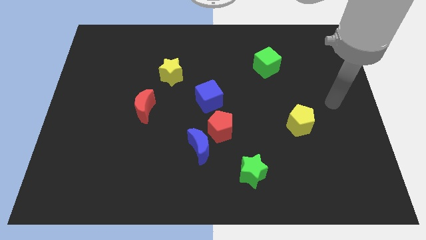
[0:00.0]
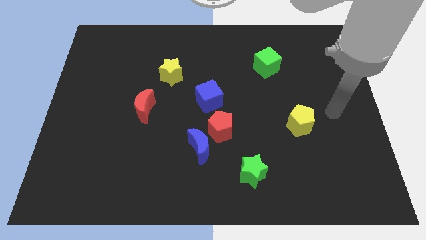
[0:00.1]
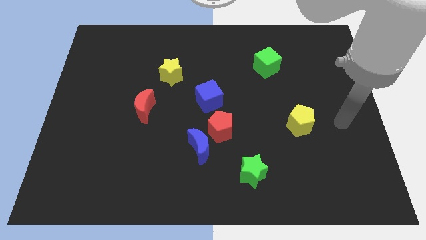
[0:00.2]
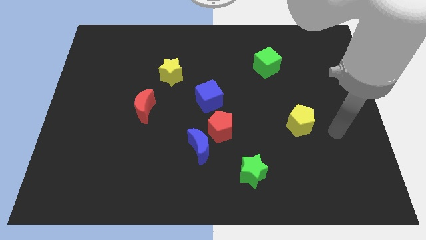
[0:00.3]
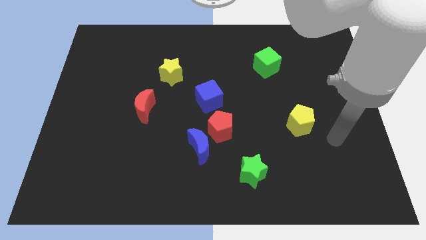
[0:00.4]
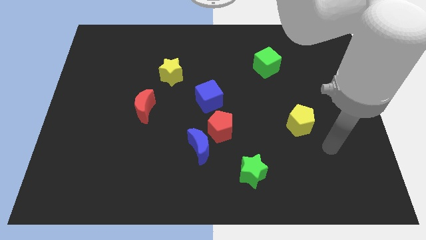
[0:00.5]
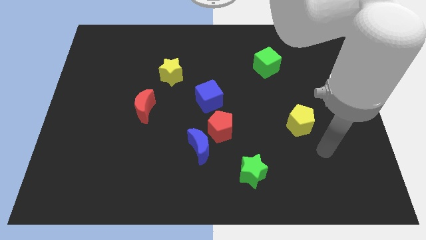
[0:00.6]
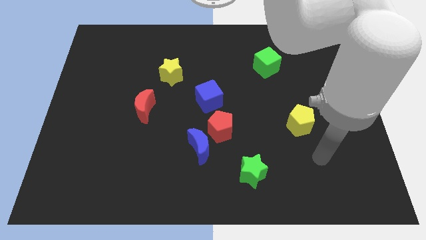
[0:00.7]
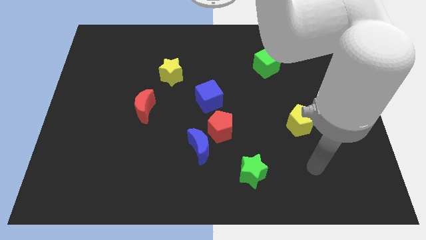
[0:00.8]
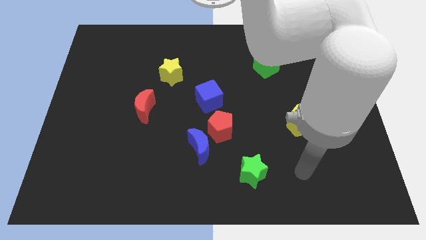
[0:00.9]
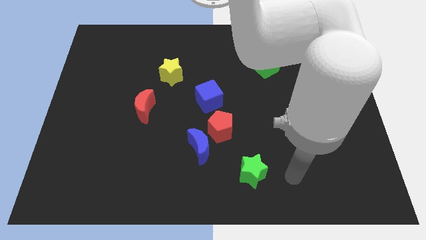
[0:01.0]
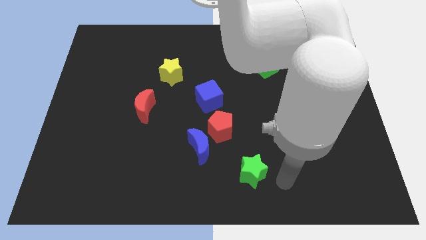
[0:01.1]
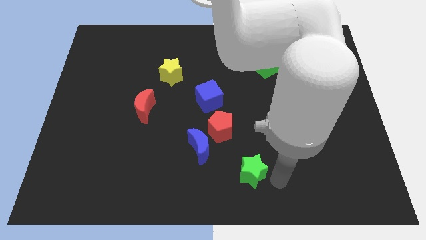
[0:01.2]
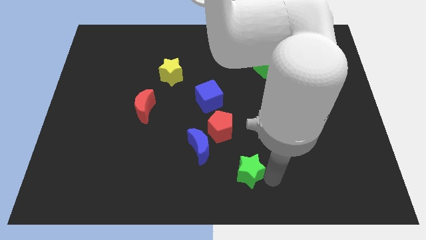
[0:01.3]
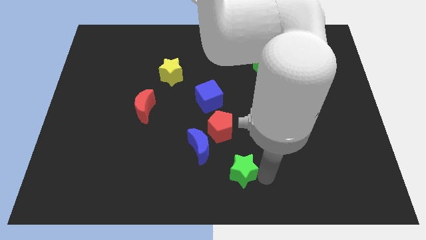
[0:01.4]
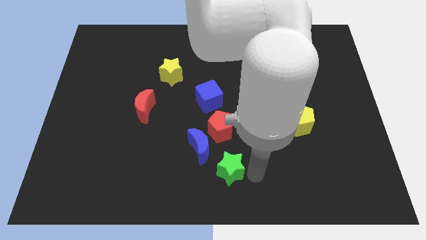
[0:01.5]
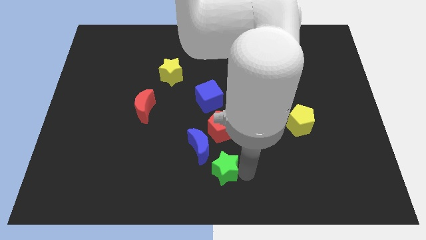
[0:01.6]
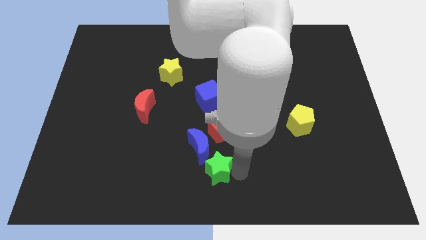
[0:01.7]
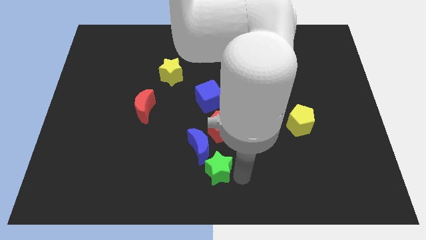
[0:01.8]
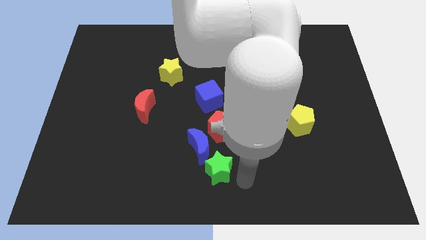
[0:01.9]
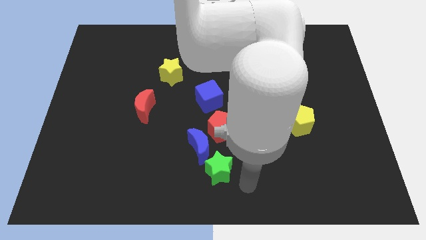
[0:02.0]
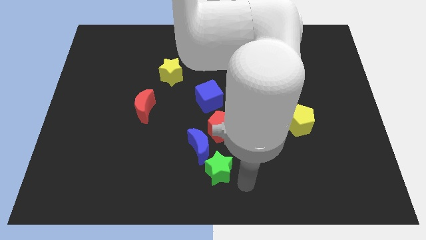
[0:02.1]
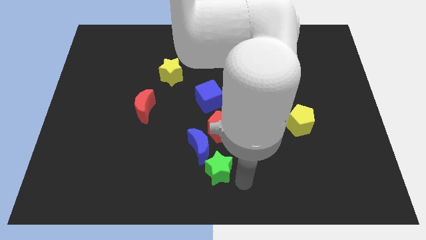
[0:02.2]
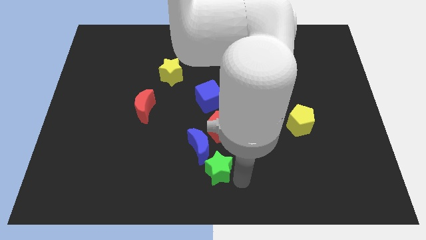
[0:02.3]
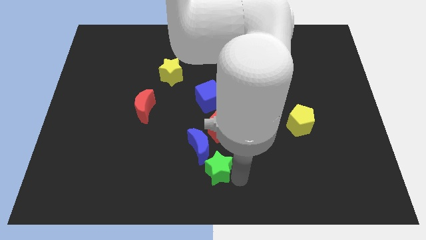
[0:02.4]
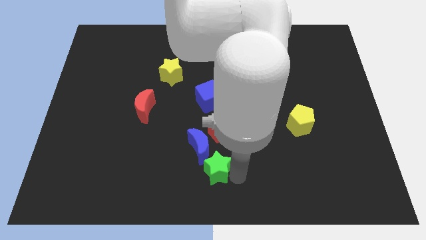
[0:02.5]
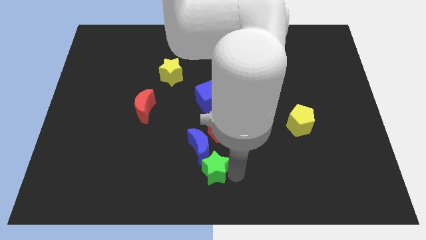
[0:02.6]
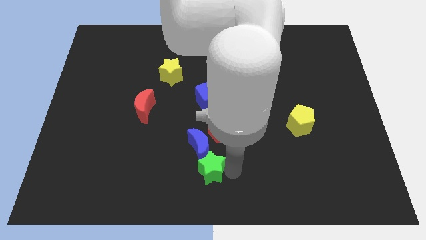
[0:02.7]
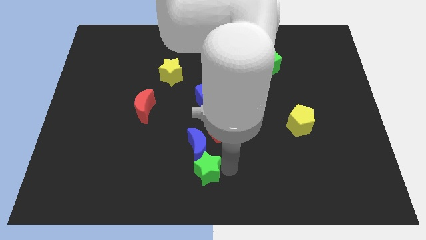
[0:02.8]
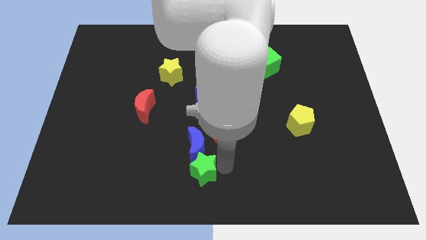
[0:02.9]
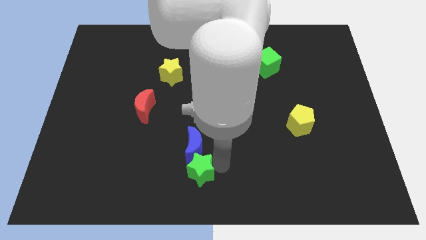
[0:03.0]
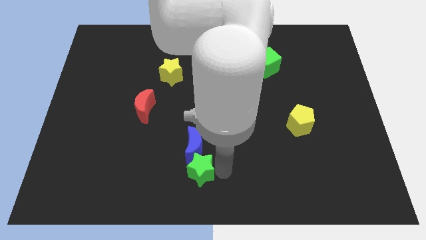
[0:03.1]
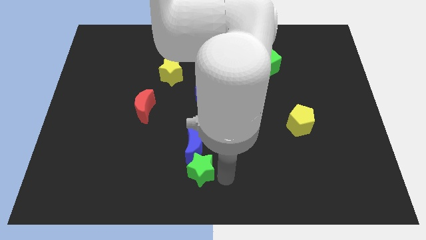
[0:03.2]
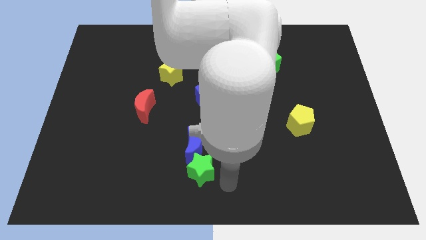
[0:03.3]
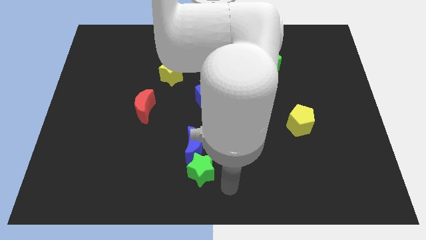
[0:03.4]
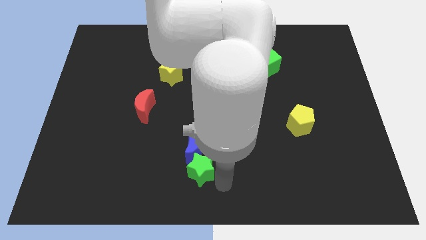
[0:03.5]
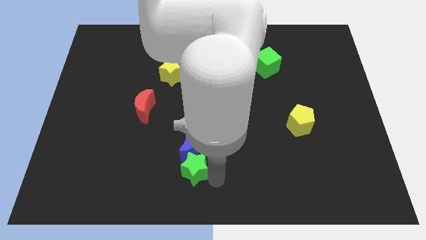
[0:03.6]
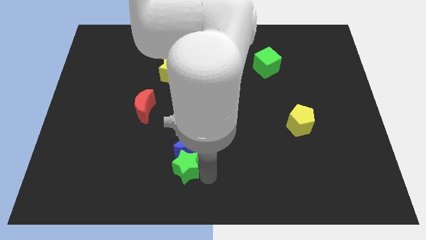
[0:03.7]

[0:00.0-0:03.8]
push the green star slightly diagonally upwards and to the left

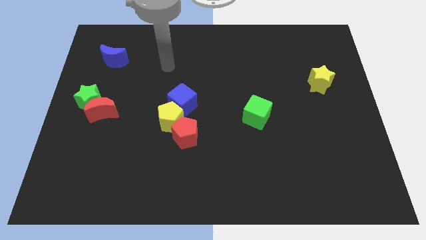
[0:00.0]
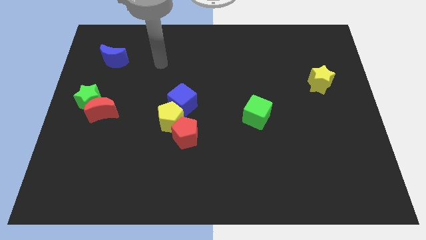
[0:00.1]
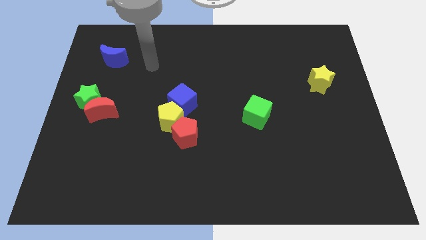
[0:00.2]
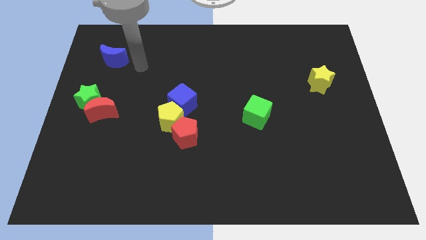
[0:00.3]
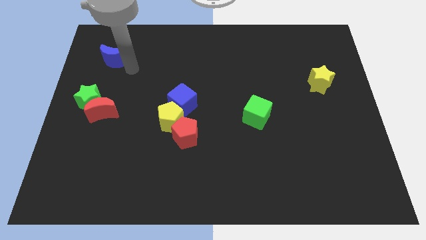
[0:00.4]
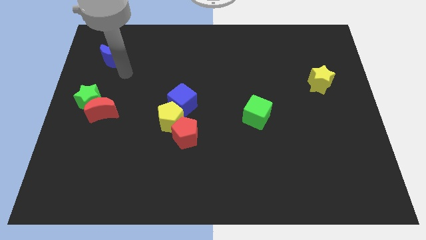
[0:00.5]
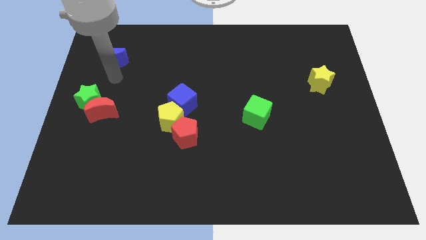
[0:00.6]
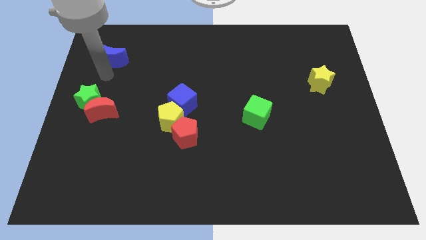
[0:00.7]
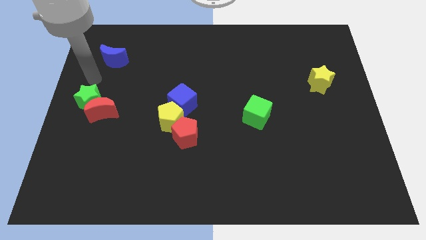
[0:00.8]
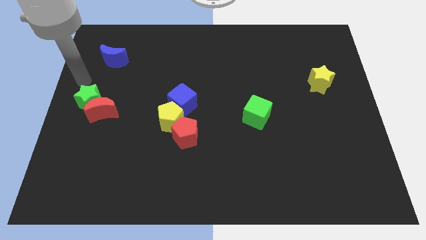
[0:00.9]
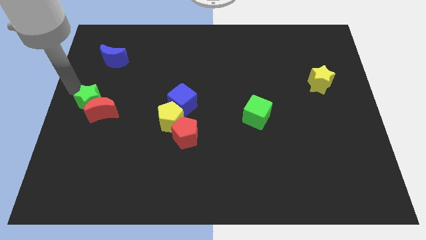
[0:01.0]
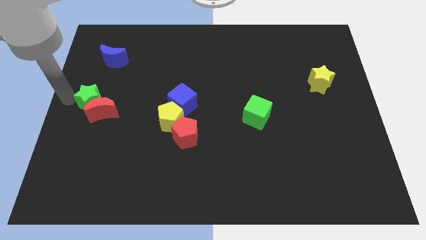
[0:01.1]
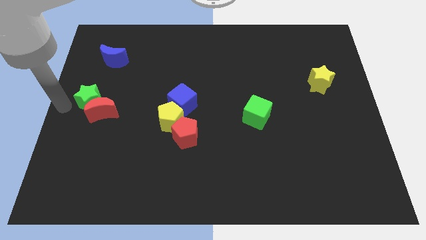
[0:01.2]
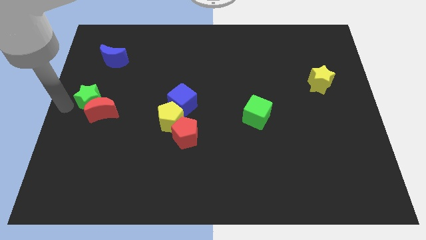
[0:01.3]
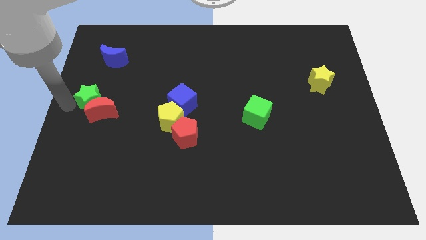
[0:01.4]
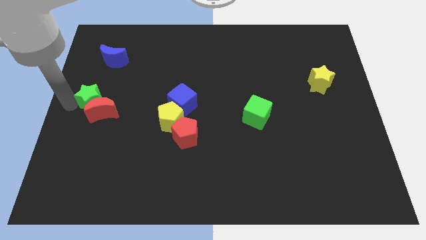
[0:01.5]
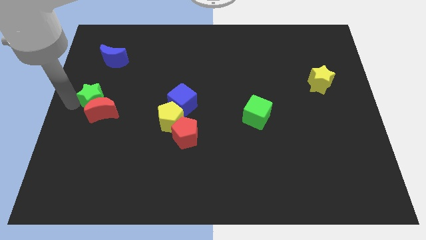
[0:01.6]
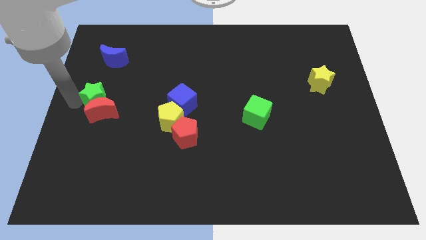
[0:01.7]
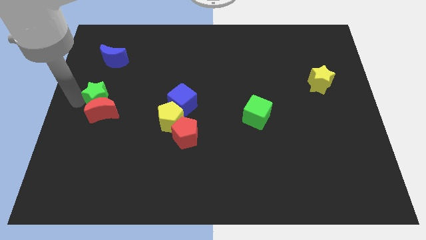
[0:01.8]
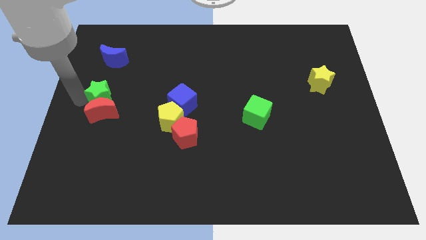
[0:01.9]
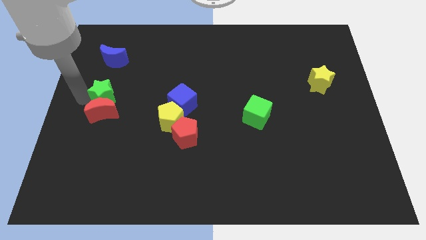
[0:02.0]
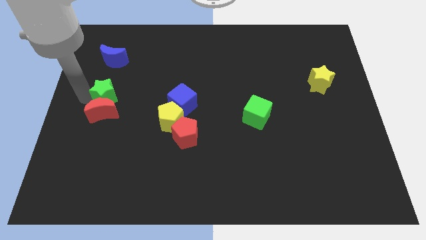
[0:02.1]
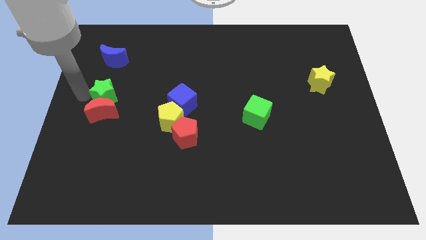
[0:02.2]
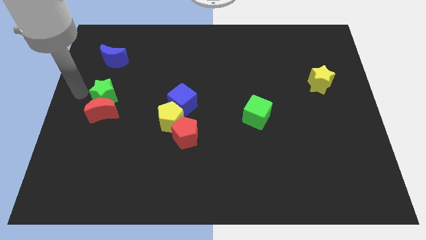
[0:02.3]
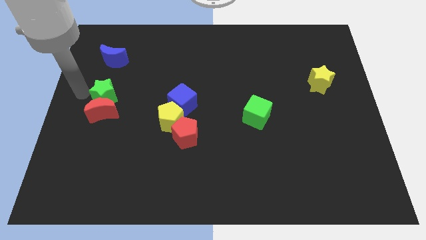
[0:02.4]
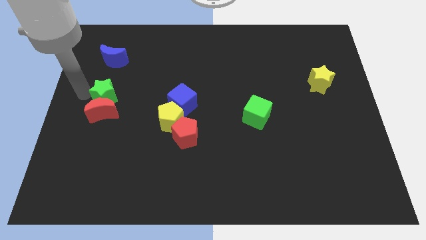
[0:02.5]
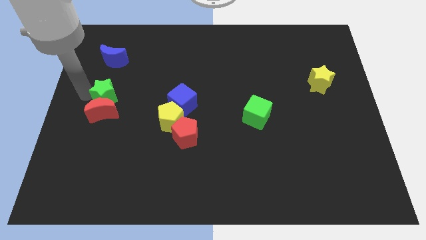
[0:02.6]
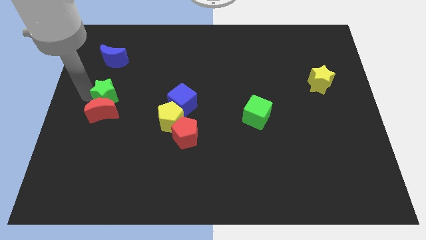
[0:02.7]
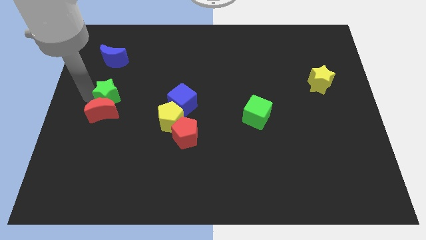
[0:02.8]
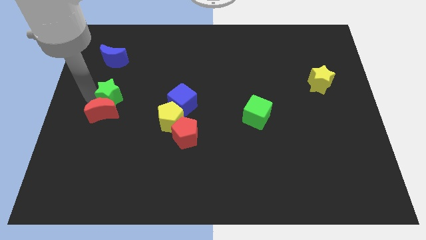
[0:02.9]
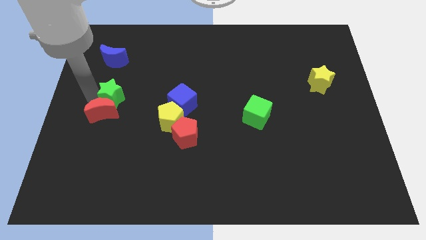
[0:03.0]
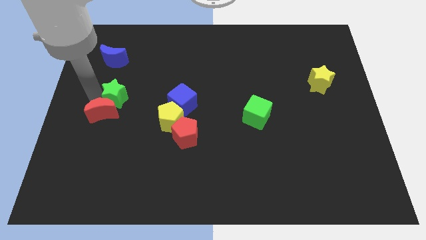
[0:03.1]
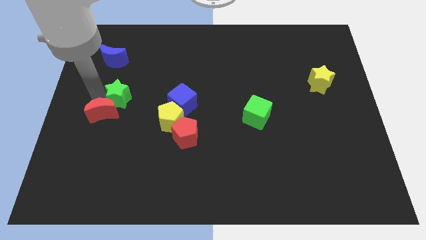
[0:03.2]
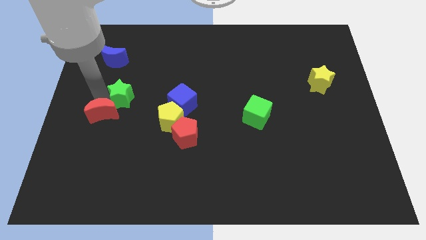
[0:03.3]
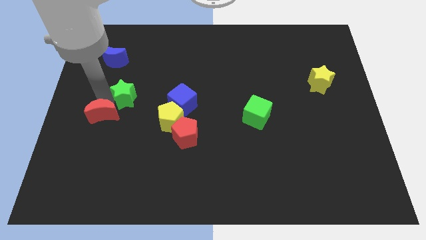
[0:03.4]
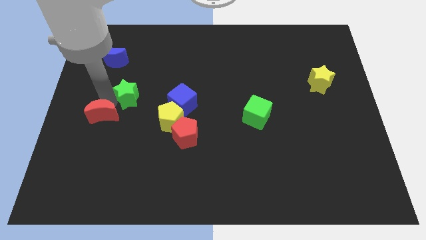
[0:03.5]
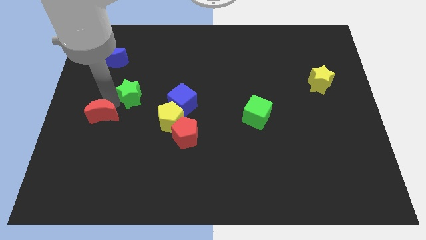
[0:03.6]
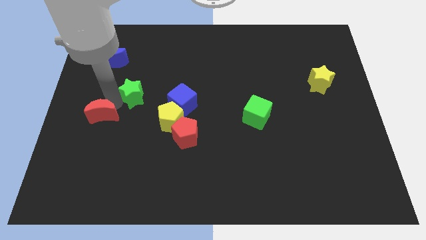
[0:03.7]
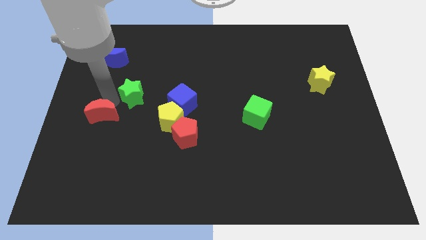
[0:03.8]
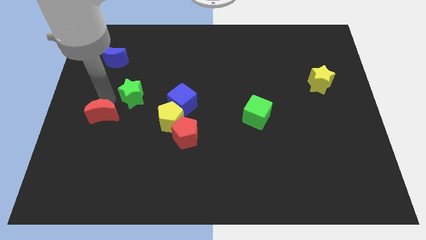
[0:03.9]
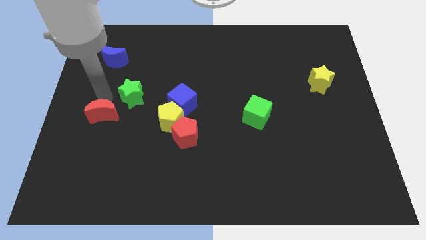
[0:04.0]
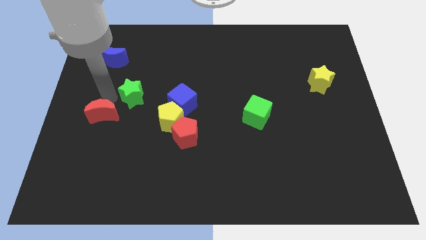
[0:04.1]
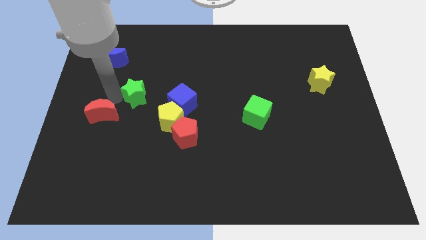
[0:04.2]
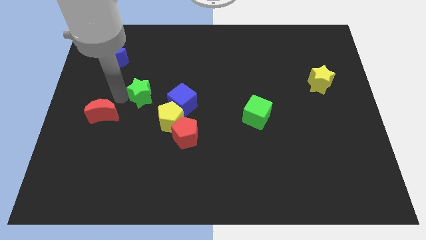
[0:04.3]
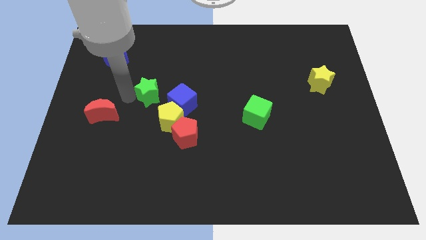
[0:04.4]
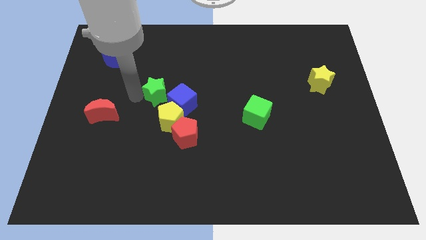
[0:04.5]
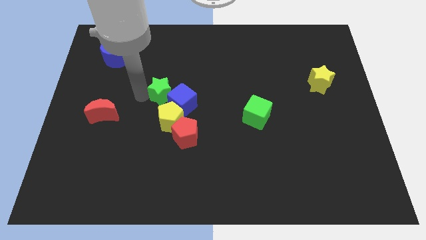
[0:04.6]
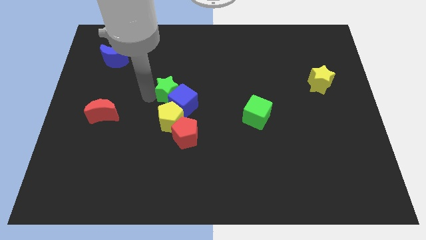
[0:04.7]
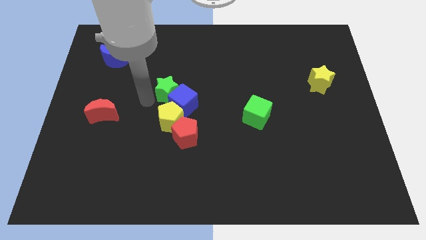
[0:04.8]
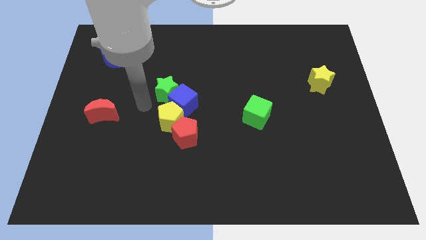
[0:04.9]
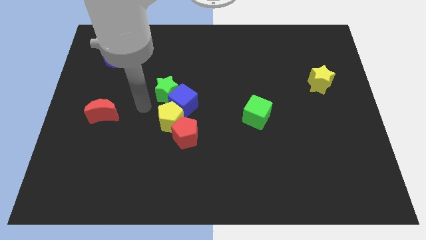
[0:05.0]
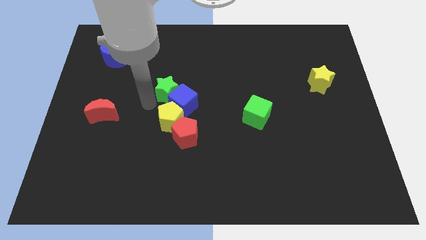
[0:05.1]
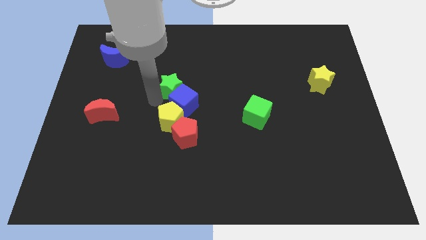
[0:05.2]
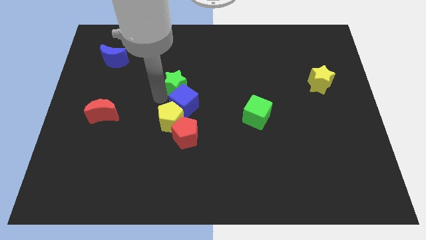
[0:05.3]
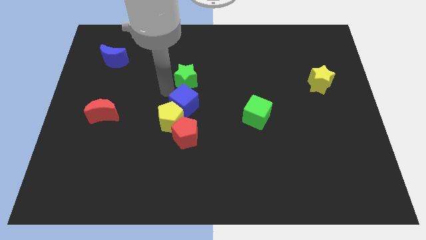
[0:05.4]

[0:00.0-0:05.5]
slide the green star right
